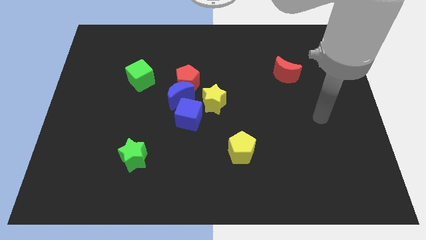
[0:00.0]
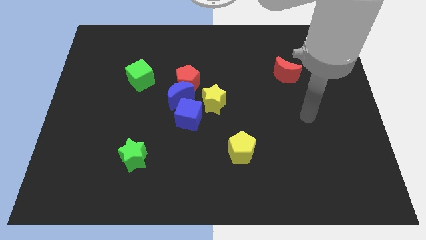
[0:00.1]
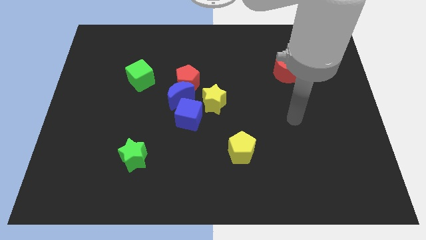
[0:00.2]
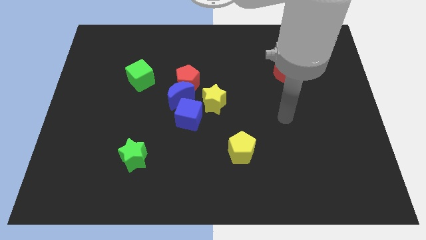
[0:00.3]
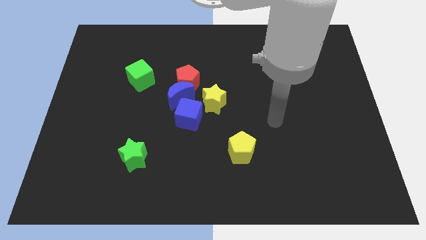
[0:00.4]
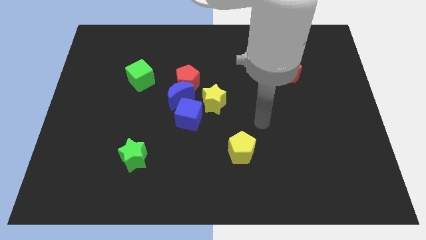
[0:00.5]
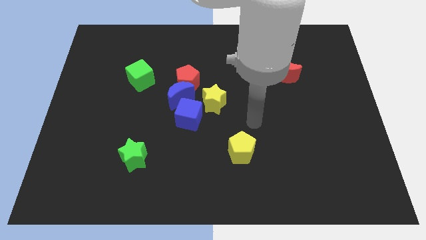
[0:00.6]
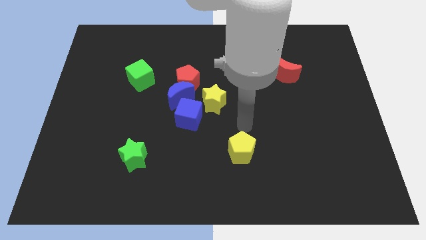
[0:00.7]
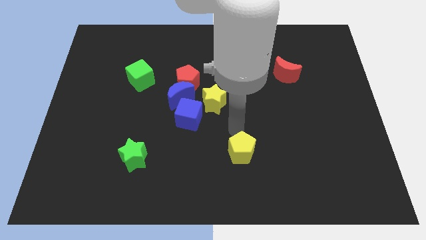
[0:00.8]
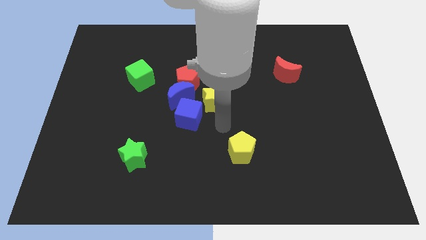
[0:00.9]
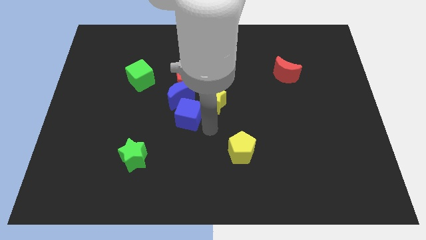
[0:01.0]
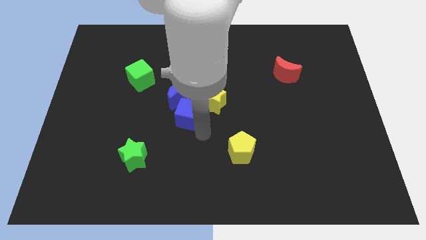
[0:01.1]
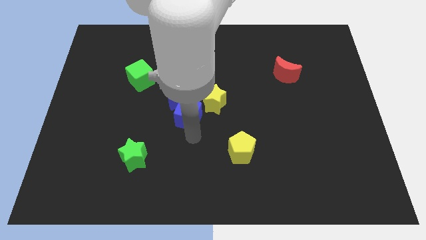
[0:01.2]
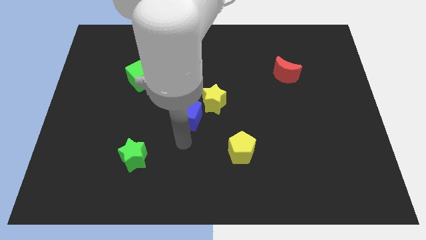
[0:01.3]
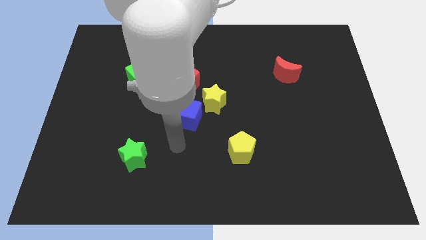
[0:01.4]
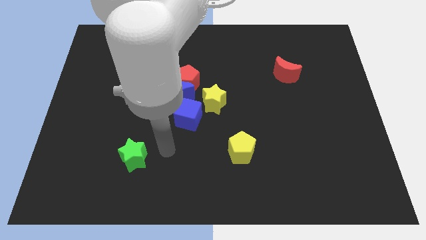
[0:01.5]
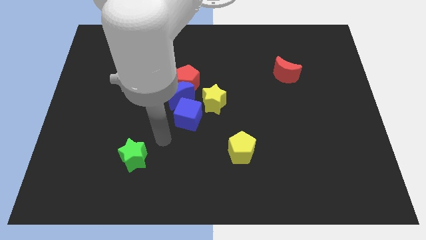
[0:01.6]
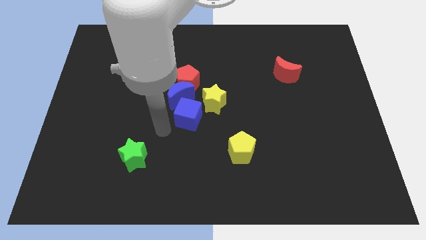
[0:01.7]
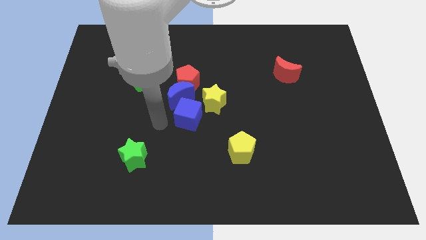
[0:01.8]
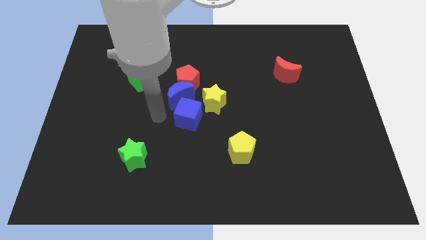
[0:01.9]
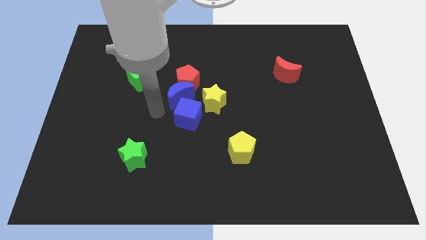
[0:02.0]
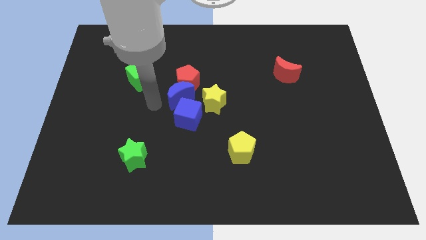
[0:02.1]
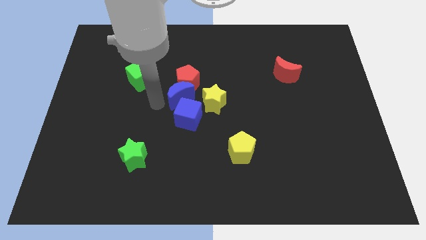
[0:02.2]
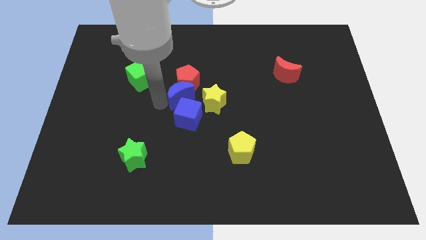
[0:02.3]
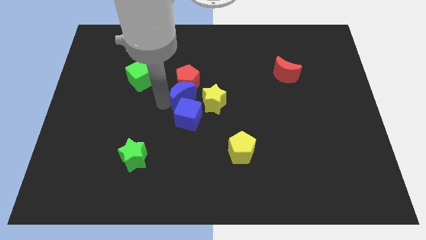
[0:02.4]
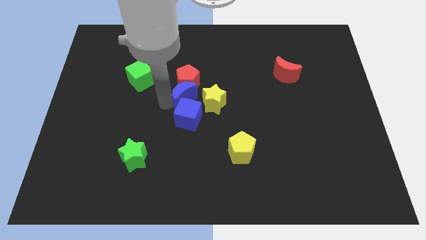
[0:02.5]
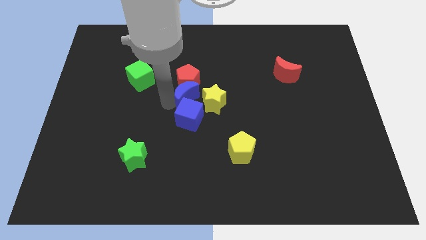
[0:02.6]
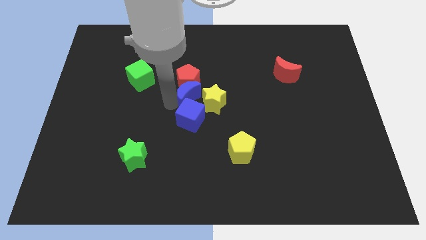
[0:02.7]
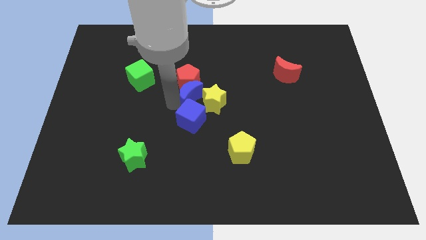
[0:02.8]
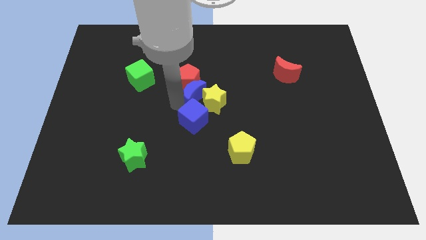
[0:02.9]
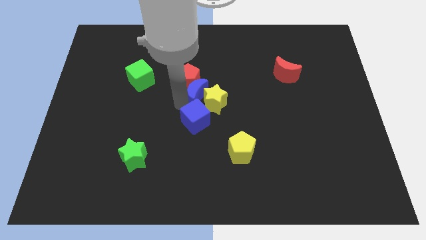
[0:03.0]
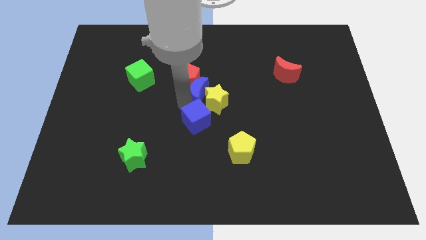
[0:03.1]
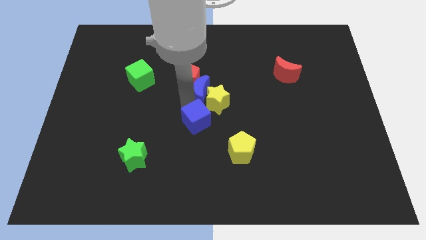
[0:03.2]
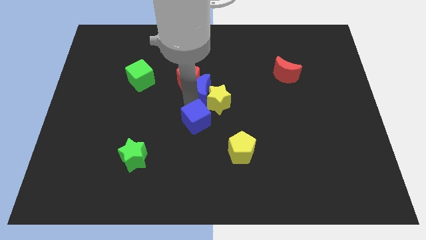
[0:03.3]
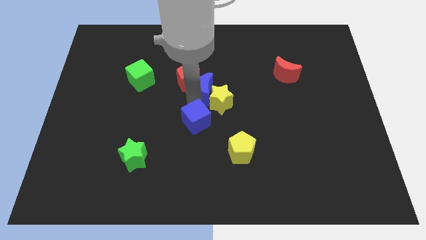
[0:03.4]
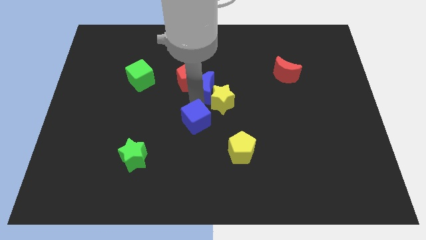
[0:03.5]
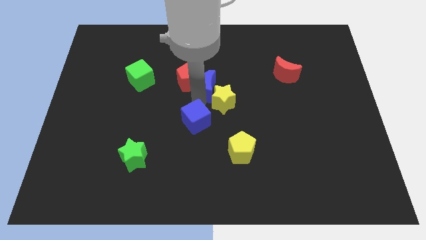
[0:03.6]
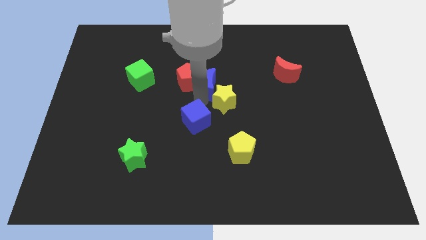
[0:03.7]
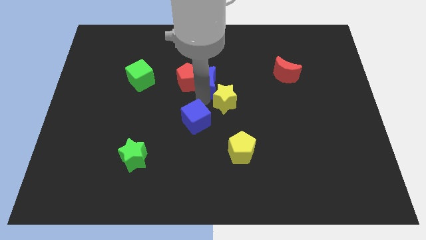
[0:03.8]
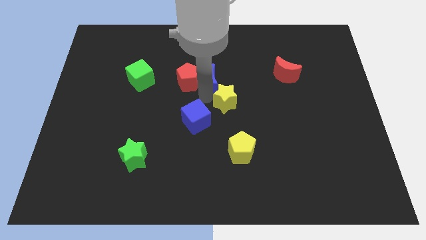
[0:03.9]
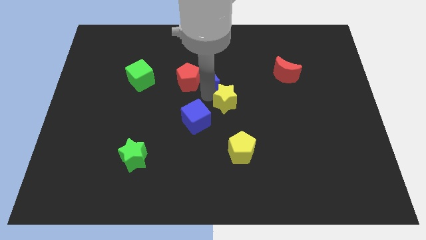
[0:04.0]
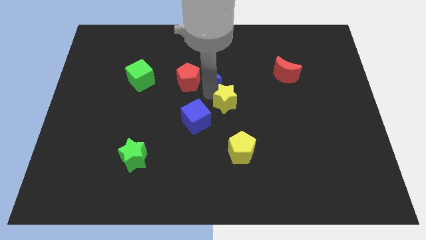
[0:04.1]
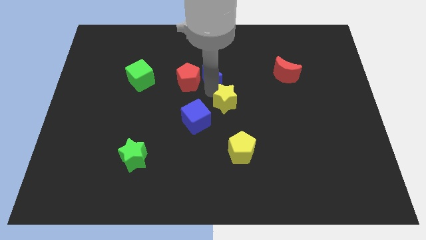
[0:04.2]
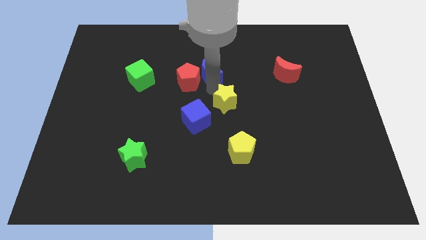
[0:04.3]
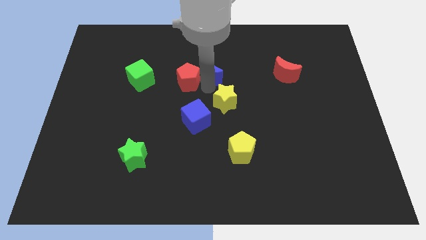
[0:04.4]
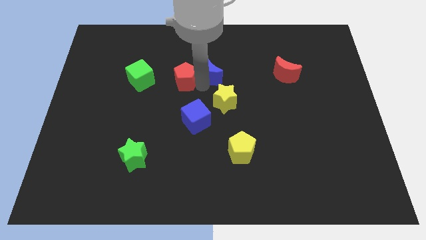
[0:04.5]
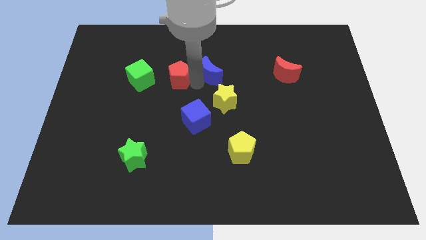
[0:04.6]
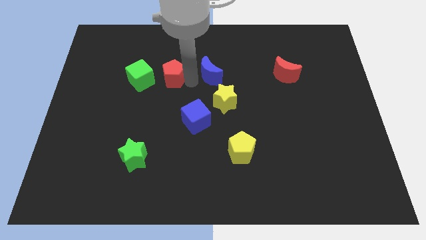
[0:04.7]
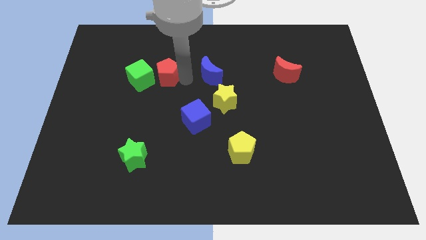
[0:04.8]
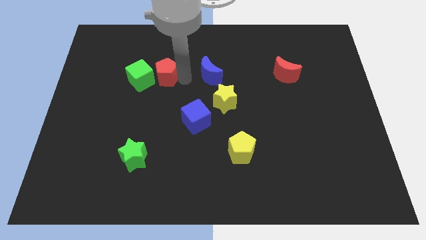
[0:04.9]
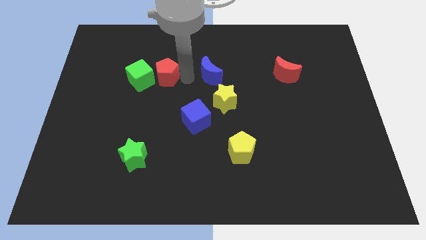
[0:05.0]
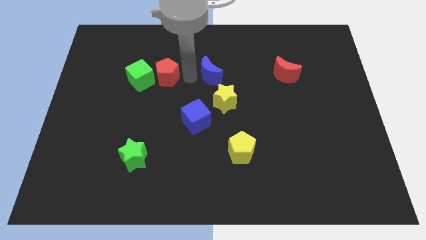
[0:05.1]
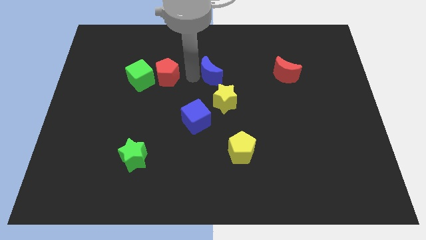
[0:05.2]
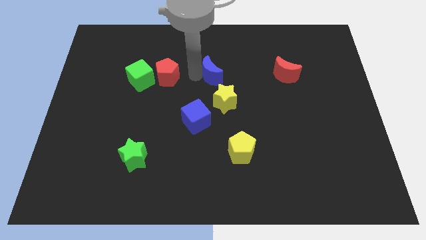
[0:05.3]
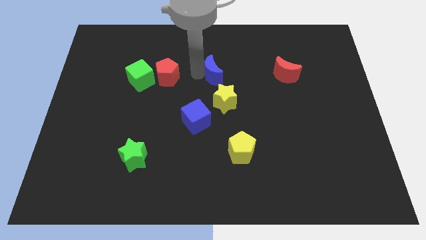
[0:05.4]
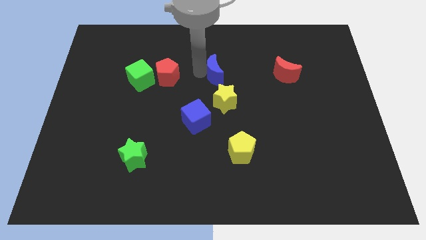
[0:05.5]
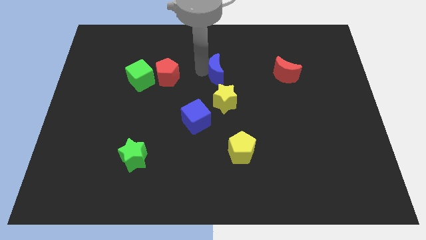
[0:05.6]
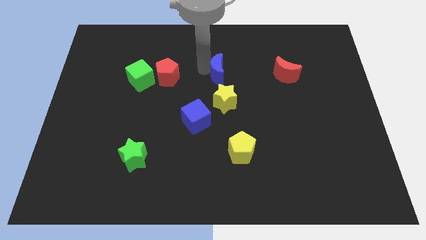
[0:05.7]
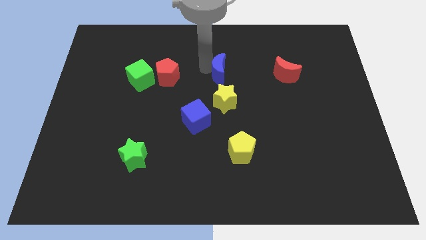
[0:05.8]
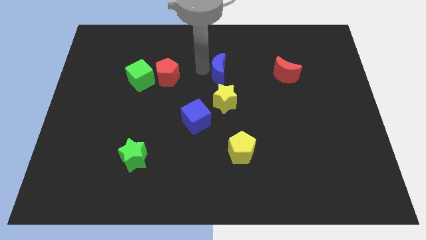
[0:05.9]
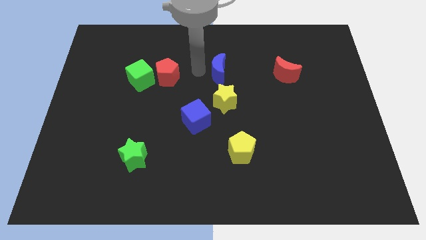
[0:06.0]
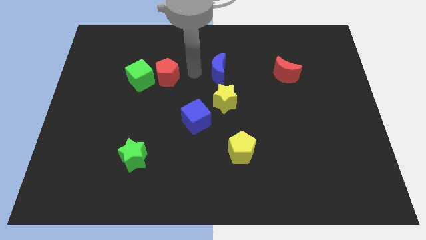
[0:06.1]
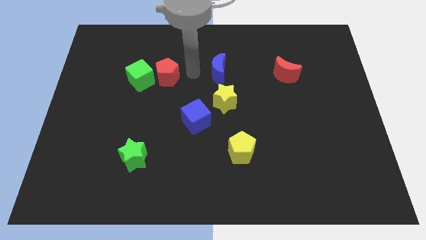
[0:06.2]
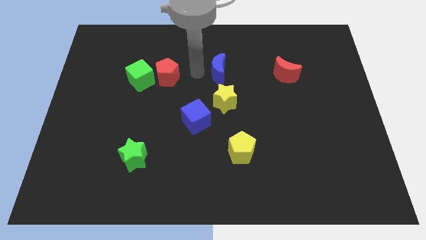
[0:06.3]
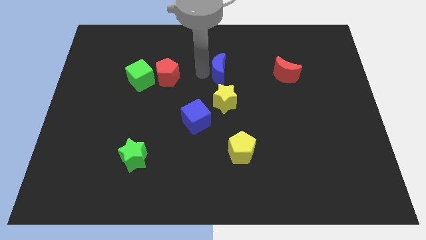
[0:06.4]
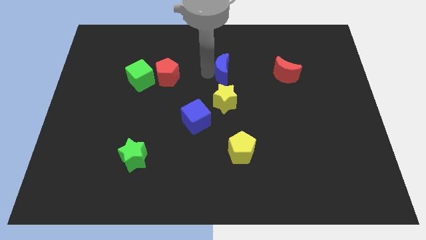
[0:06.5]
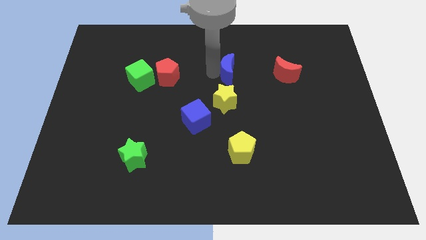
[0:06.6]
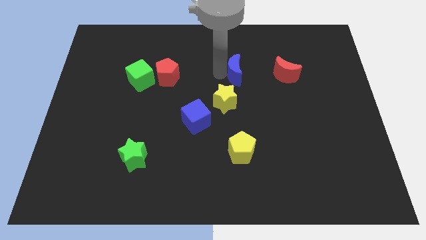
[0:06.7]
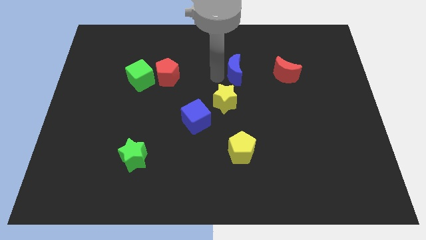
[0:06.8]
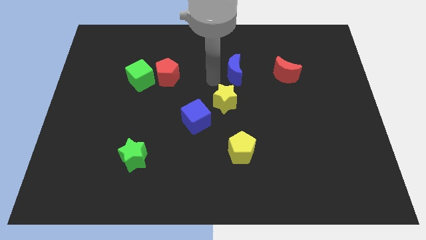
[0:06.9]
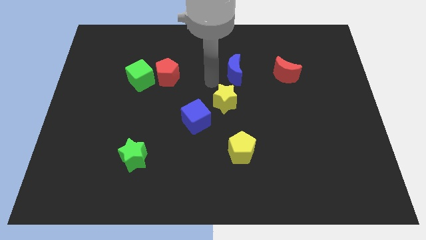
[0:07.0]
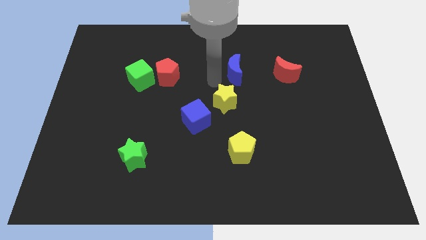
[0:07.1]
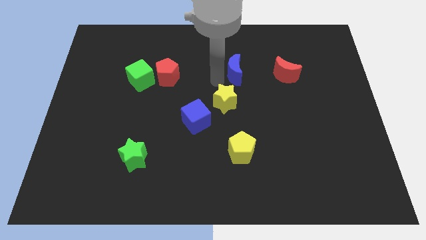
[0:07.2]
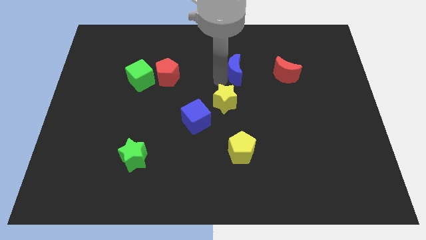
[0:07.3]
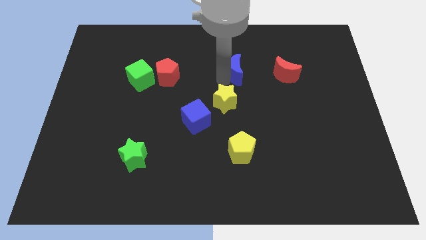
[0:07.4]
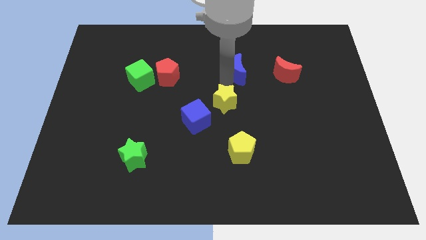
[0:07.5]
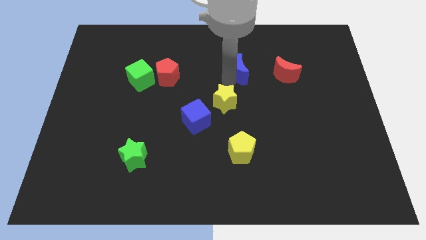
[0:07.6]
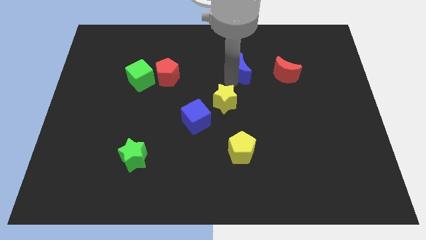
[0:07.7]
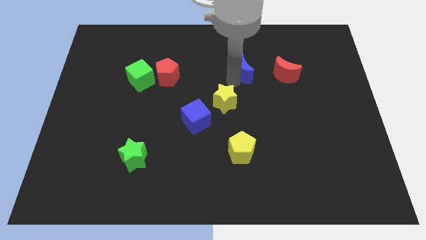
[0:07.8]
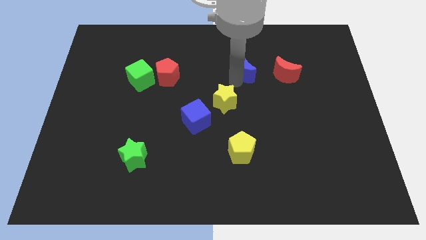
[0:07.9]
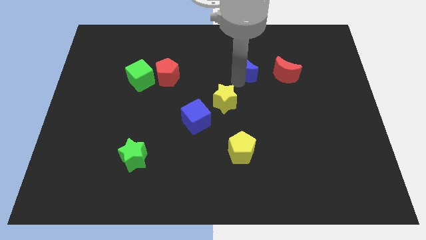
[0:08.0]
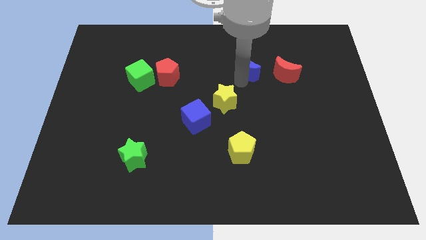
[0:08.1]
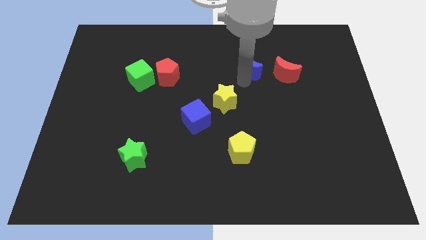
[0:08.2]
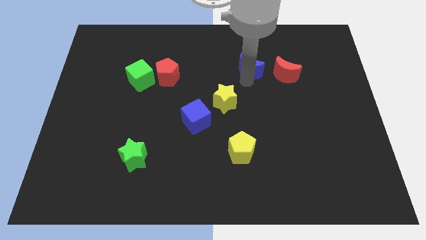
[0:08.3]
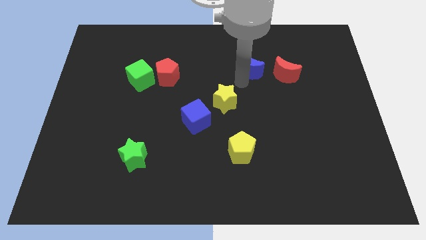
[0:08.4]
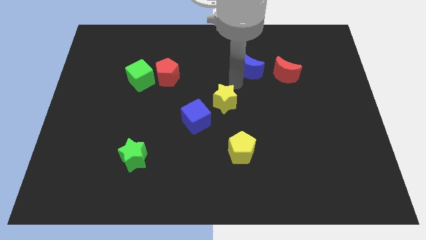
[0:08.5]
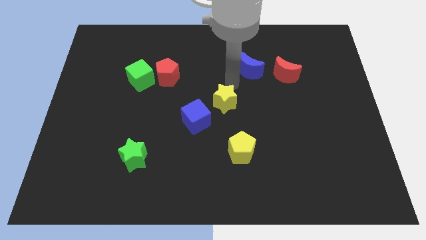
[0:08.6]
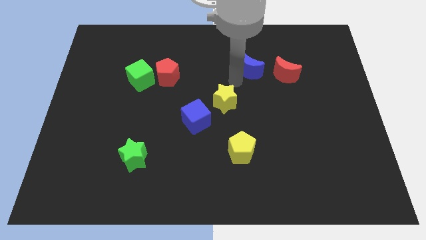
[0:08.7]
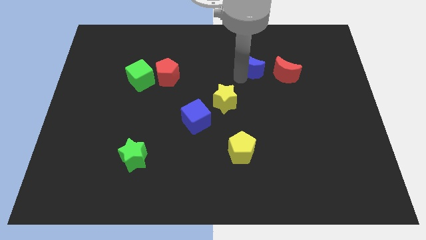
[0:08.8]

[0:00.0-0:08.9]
slide the blue moon diagonally up and to the left of the red moon
